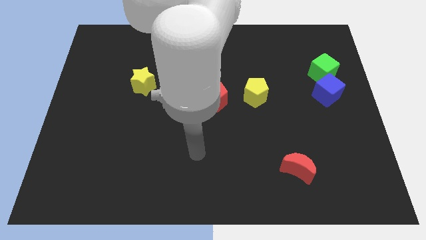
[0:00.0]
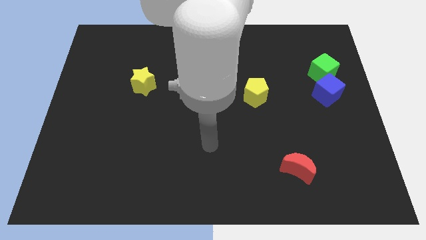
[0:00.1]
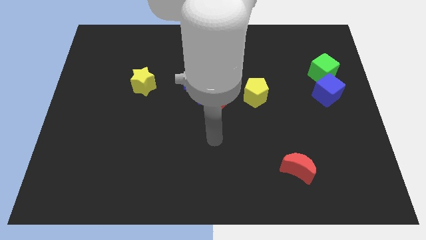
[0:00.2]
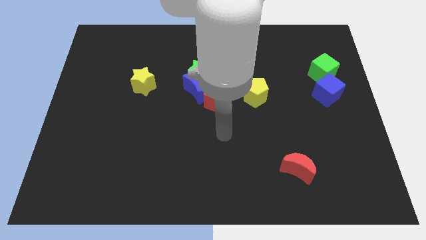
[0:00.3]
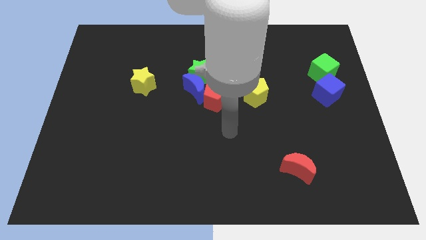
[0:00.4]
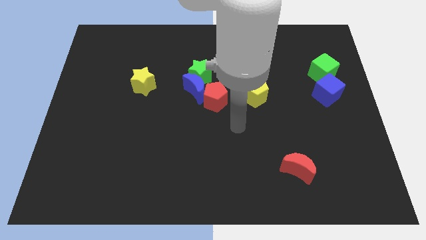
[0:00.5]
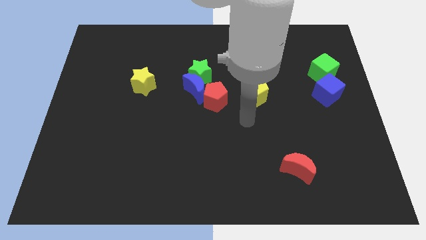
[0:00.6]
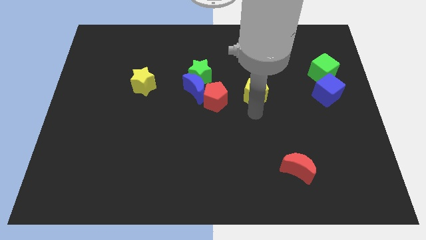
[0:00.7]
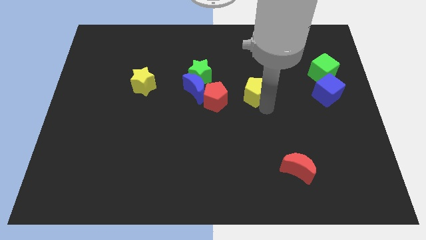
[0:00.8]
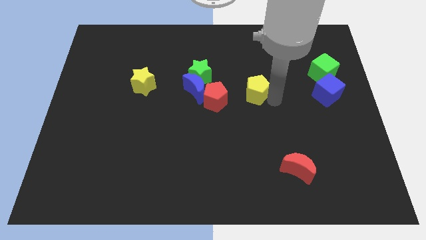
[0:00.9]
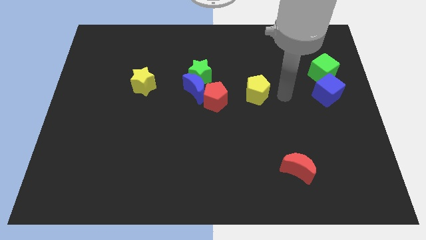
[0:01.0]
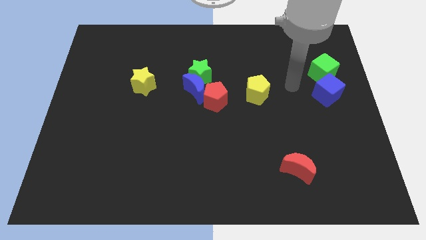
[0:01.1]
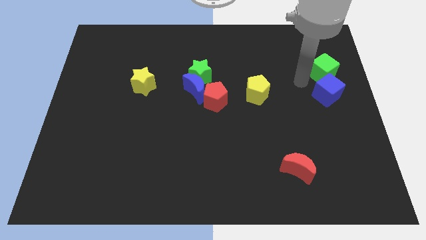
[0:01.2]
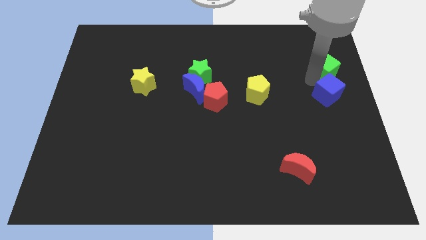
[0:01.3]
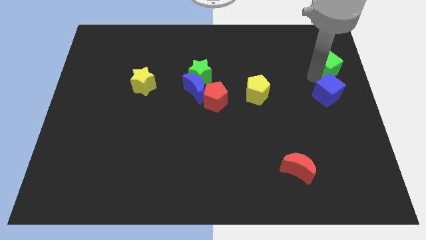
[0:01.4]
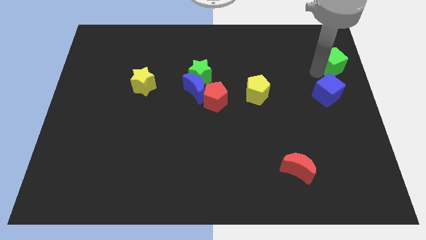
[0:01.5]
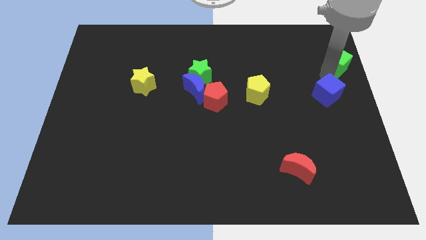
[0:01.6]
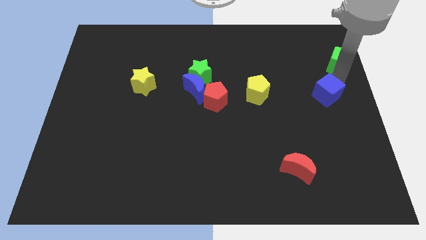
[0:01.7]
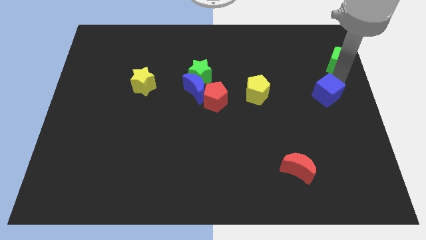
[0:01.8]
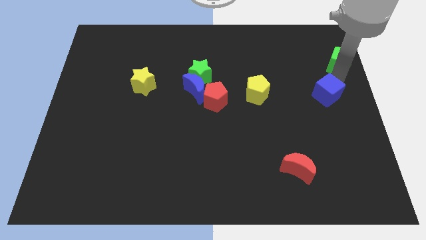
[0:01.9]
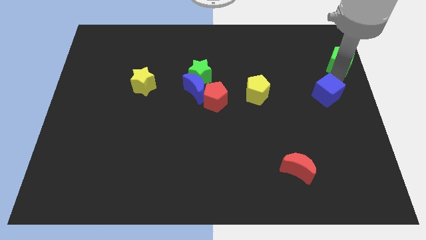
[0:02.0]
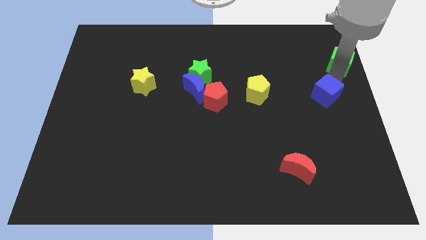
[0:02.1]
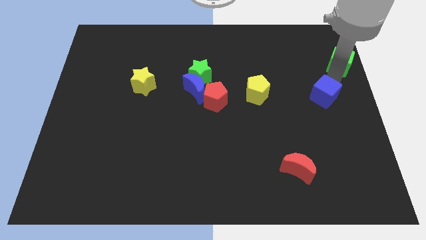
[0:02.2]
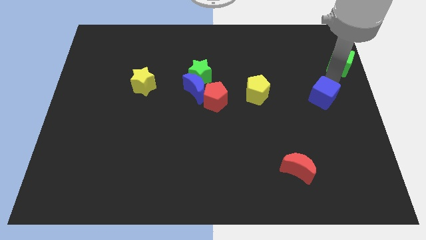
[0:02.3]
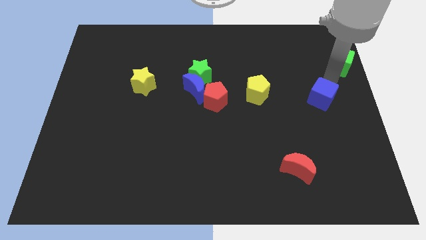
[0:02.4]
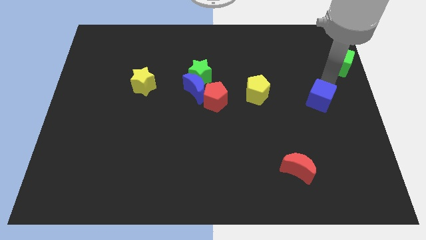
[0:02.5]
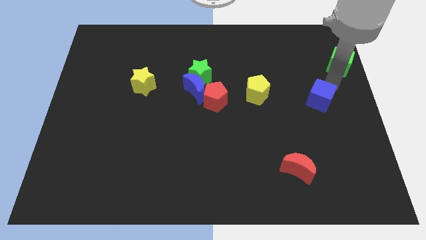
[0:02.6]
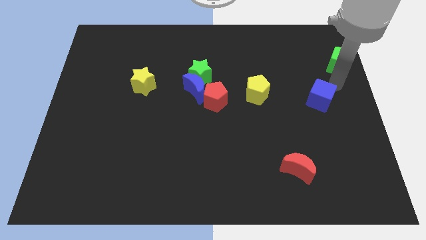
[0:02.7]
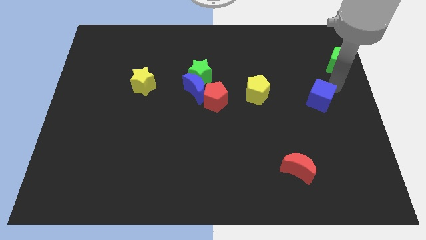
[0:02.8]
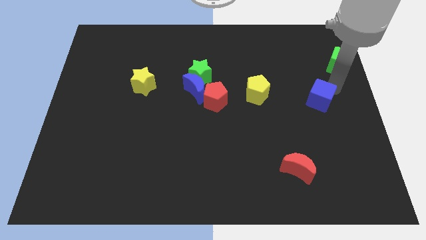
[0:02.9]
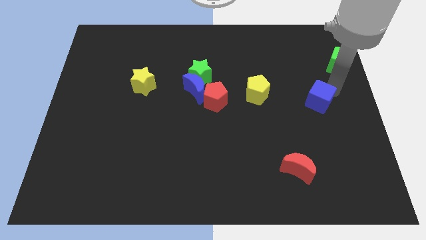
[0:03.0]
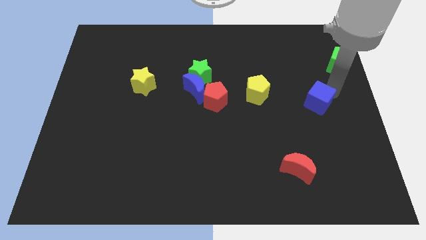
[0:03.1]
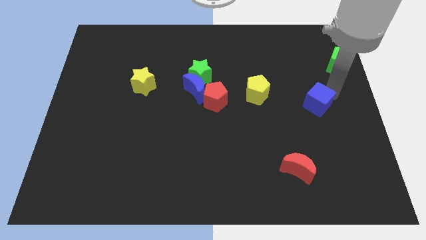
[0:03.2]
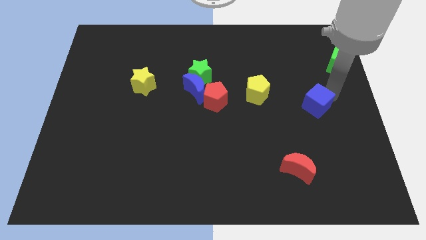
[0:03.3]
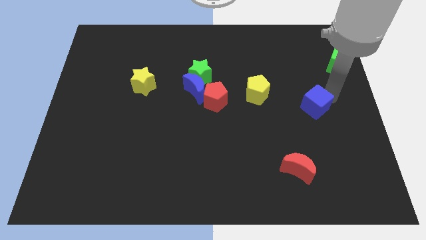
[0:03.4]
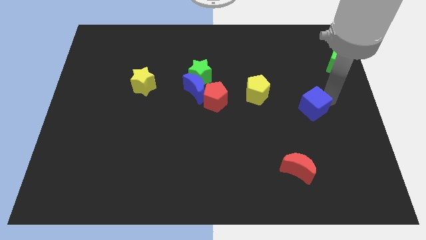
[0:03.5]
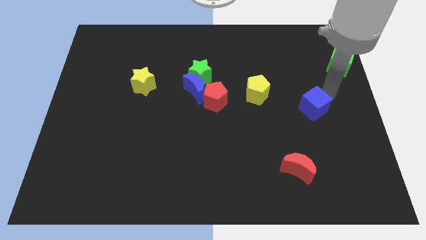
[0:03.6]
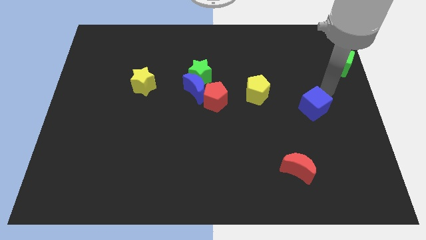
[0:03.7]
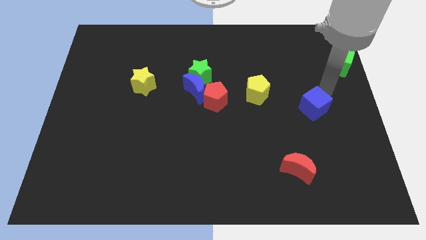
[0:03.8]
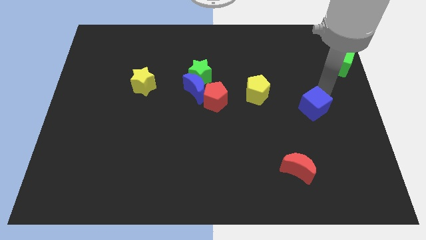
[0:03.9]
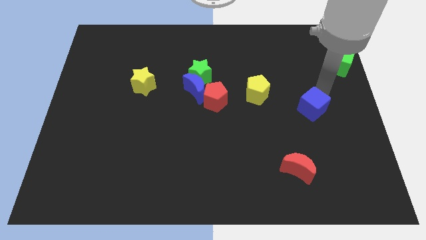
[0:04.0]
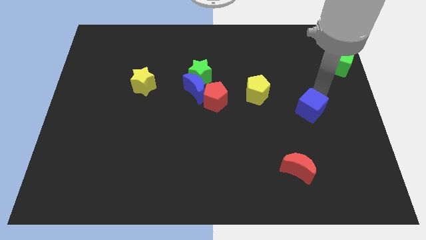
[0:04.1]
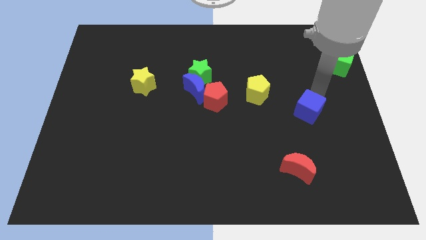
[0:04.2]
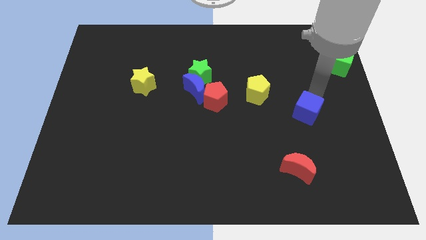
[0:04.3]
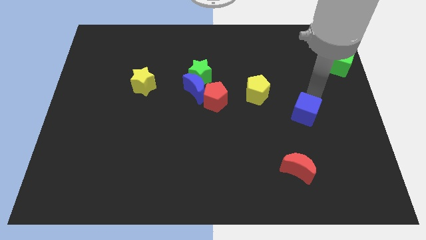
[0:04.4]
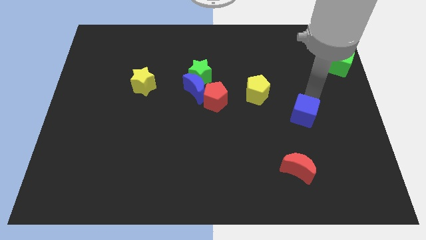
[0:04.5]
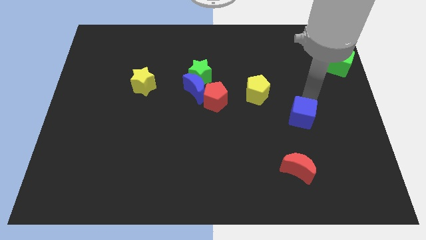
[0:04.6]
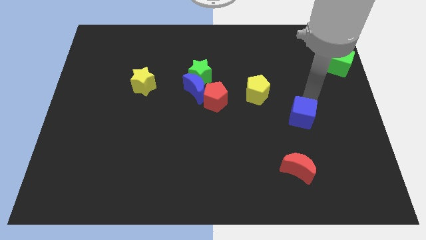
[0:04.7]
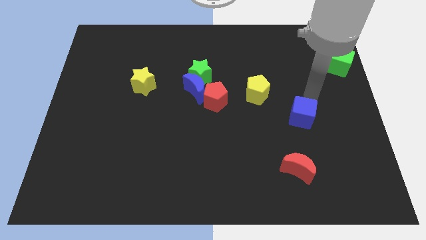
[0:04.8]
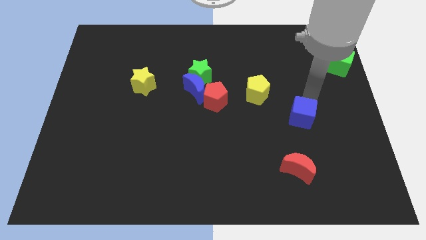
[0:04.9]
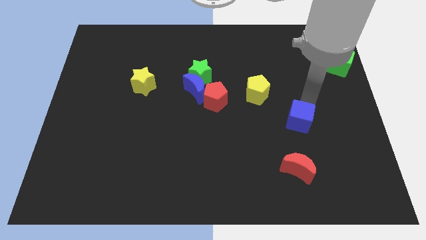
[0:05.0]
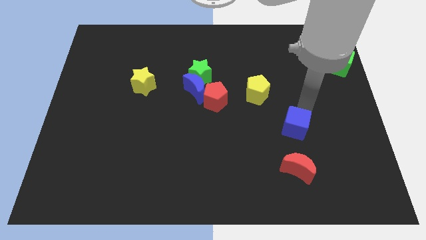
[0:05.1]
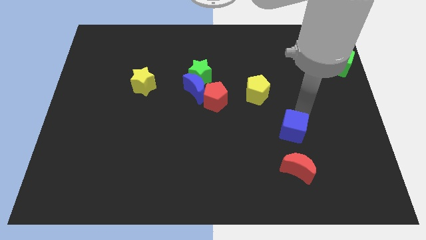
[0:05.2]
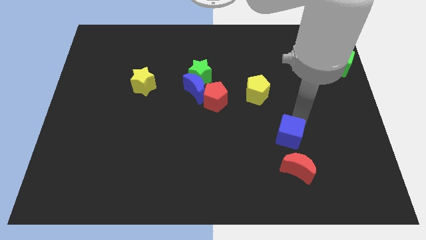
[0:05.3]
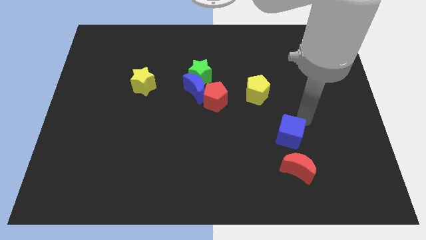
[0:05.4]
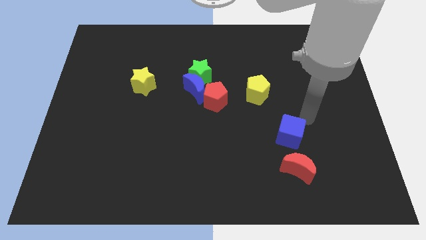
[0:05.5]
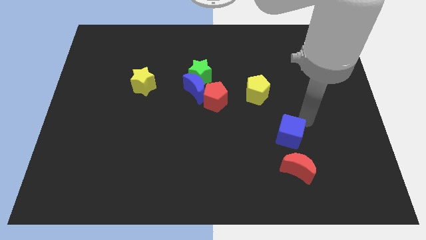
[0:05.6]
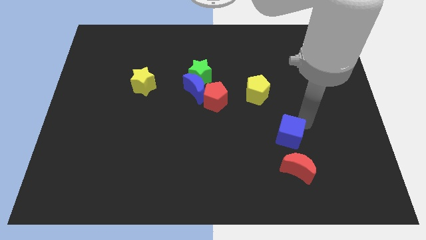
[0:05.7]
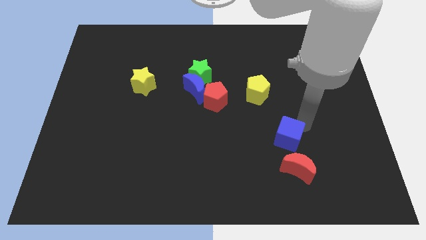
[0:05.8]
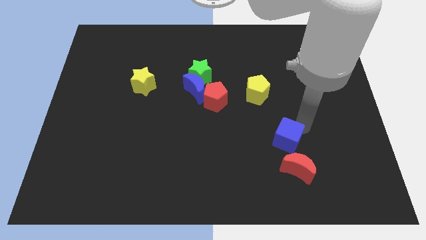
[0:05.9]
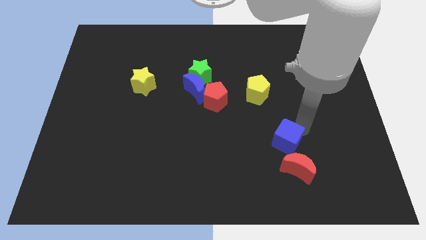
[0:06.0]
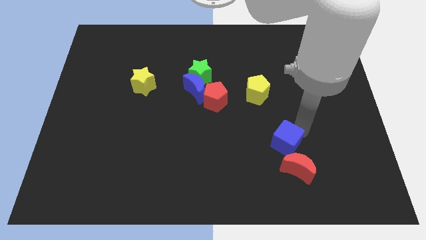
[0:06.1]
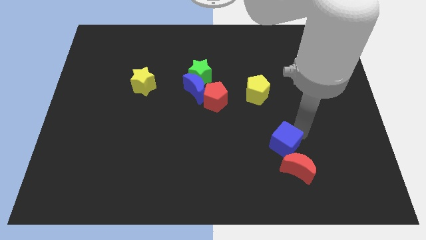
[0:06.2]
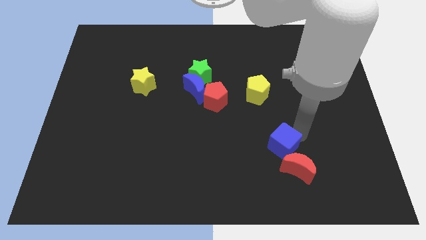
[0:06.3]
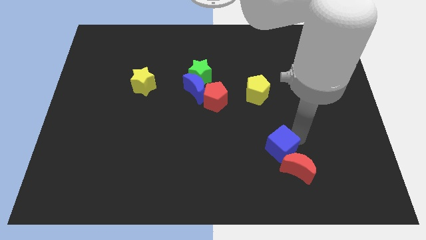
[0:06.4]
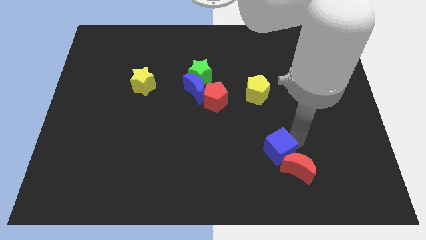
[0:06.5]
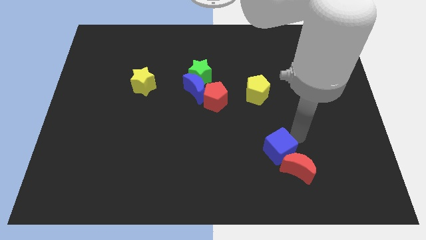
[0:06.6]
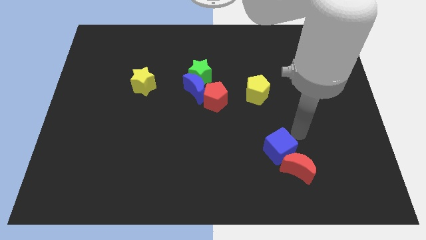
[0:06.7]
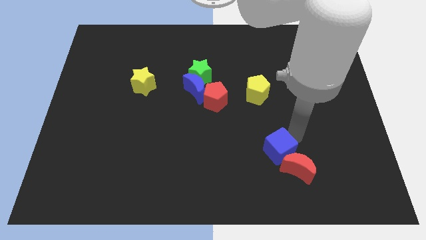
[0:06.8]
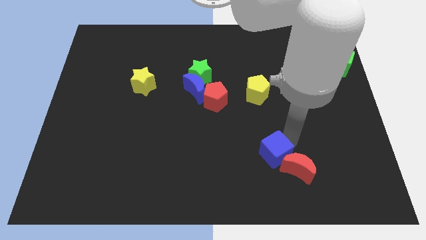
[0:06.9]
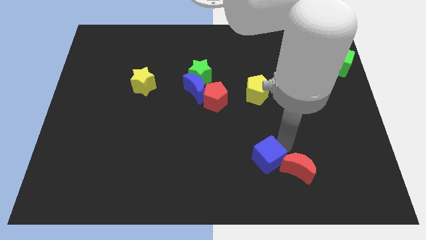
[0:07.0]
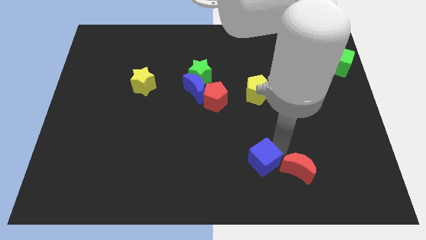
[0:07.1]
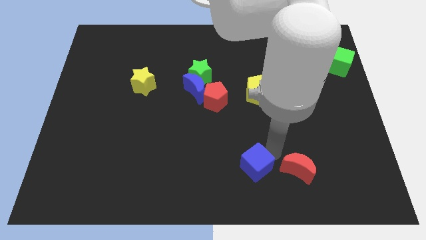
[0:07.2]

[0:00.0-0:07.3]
put the blue cube to the bottom
